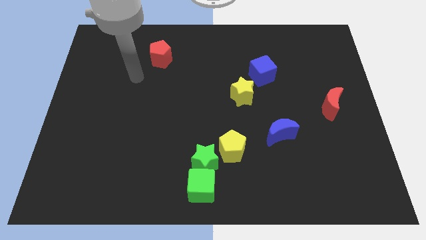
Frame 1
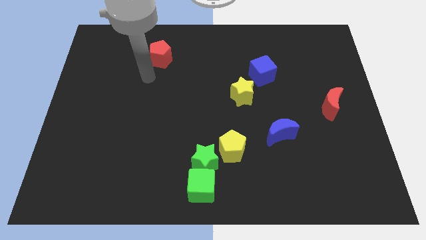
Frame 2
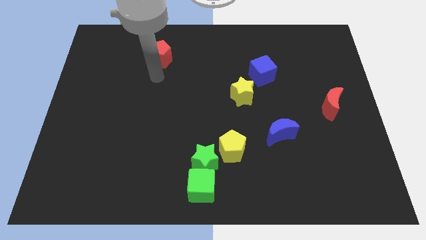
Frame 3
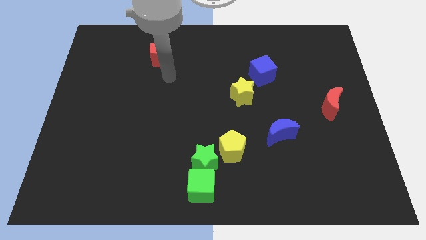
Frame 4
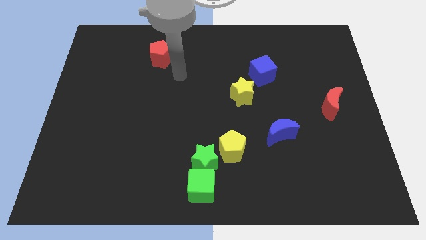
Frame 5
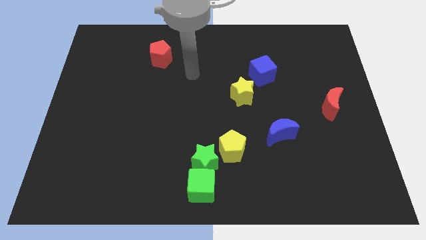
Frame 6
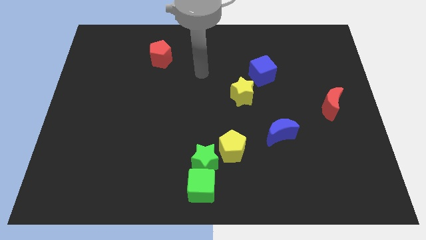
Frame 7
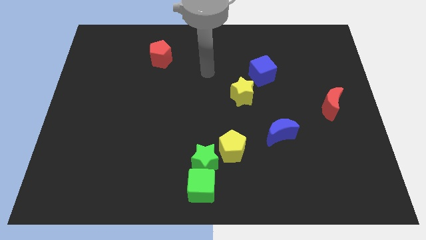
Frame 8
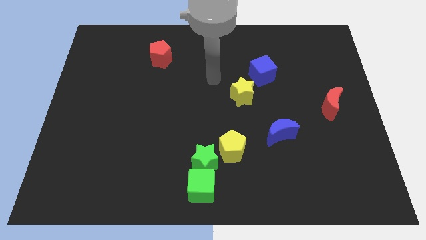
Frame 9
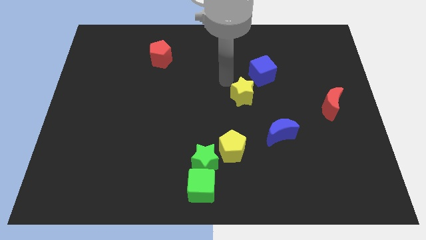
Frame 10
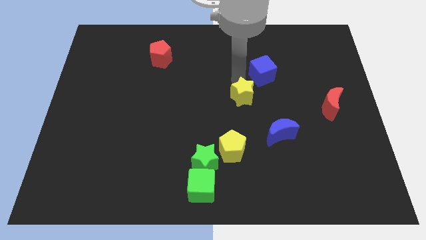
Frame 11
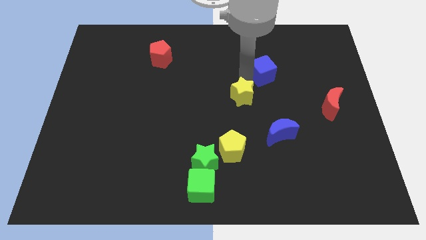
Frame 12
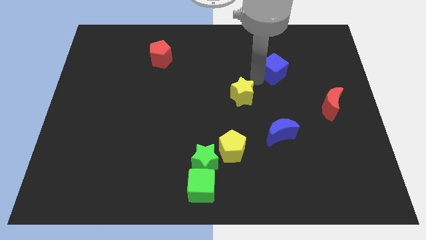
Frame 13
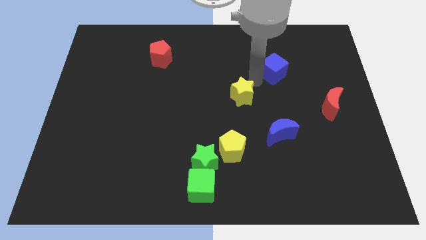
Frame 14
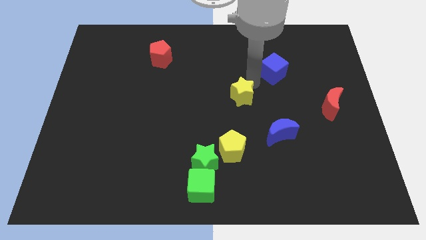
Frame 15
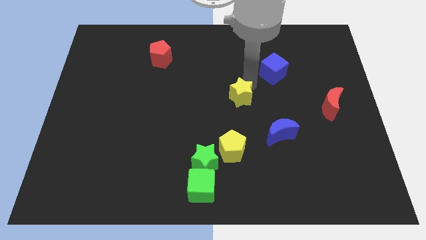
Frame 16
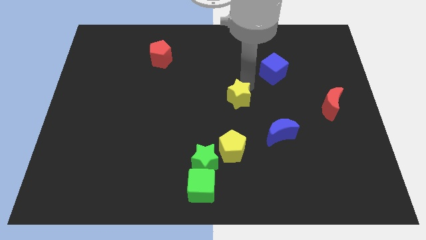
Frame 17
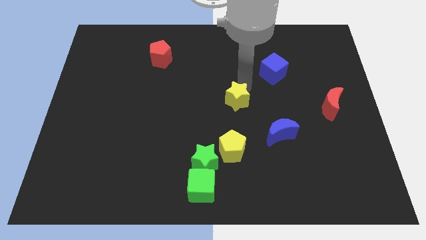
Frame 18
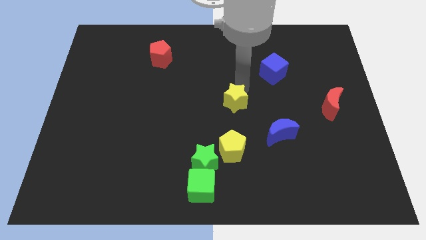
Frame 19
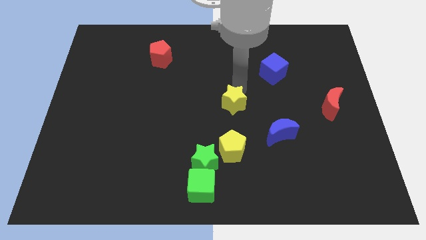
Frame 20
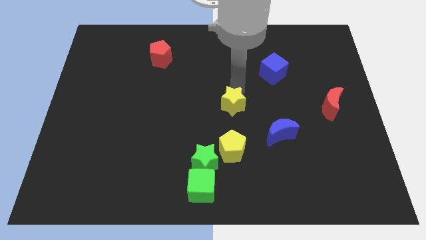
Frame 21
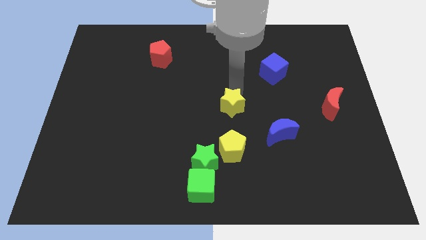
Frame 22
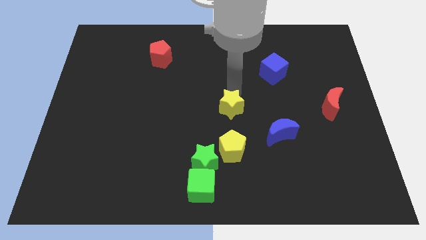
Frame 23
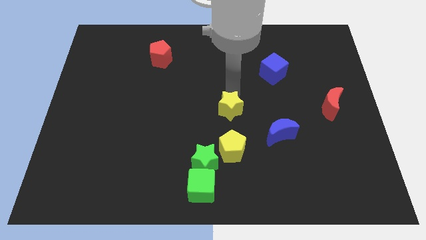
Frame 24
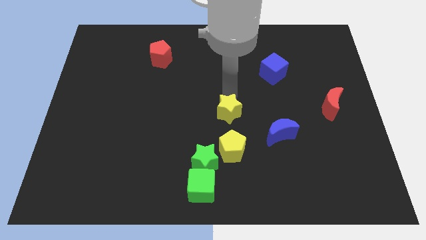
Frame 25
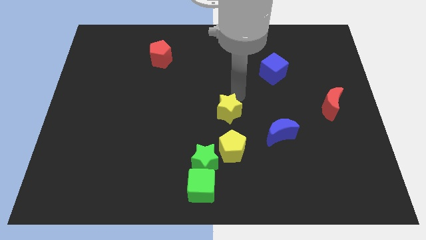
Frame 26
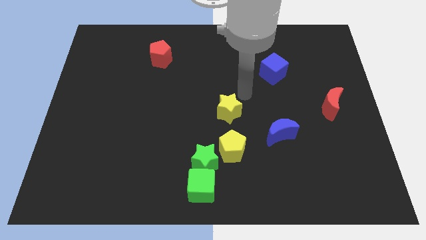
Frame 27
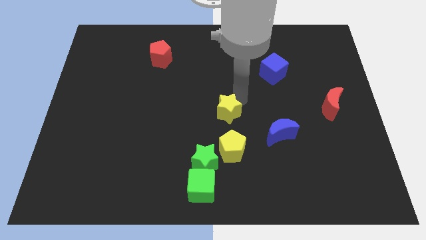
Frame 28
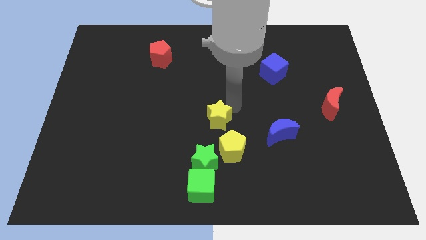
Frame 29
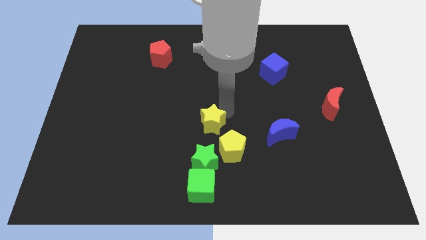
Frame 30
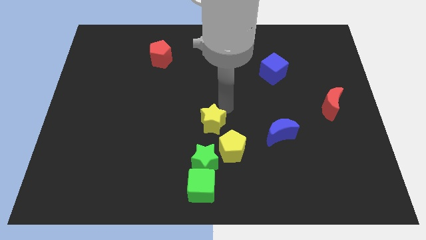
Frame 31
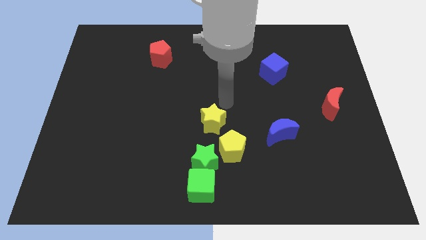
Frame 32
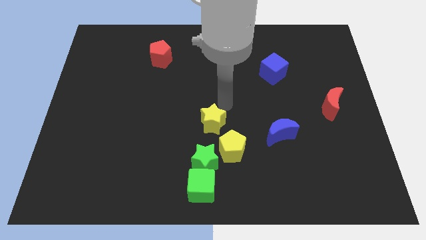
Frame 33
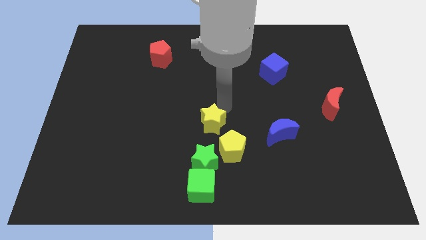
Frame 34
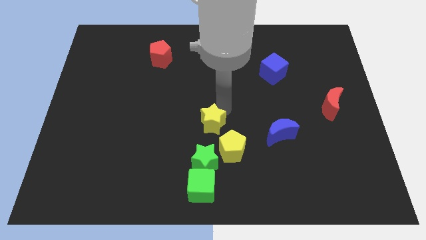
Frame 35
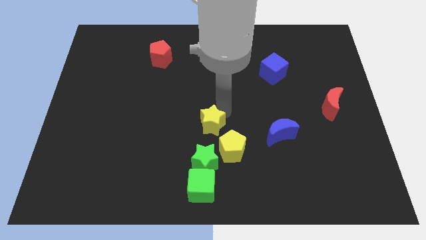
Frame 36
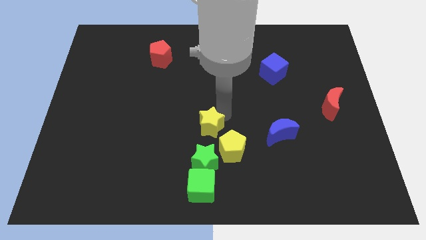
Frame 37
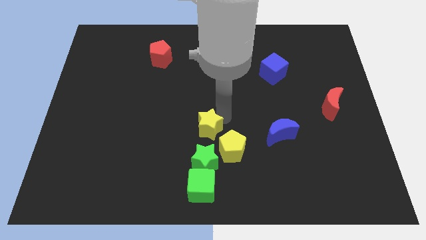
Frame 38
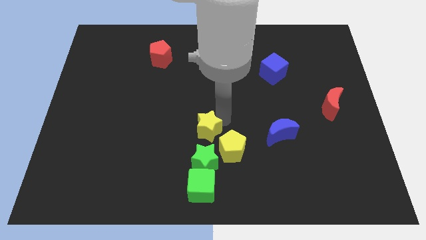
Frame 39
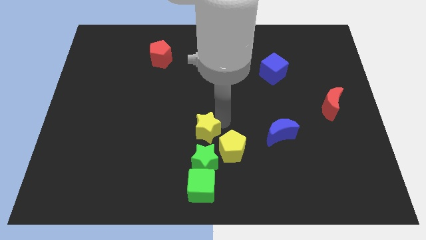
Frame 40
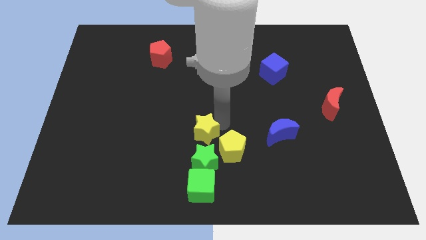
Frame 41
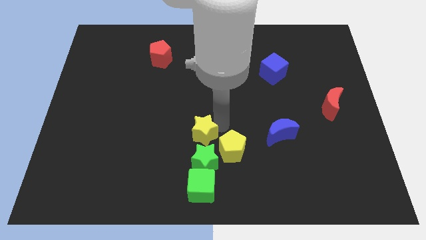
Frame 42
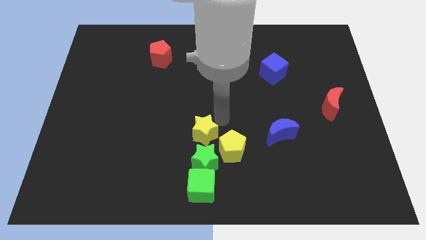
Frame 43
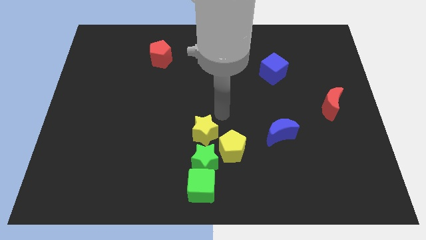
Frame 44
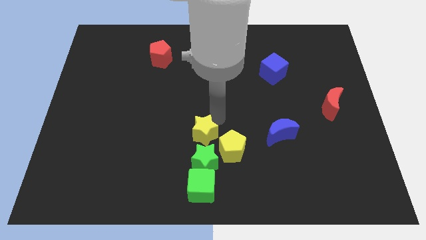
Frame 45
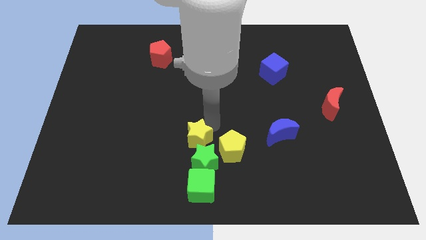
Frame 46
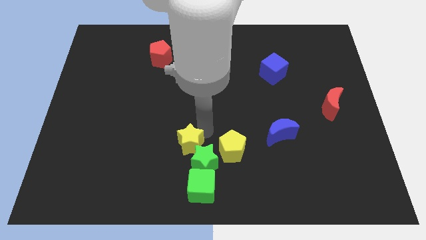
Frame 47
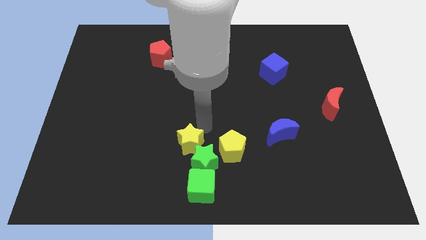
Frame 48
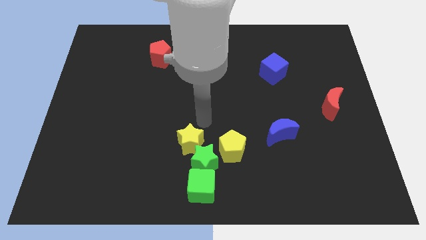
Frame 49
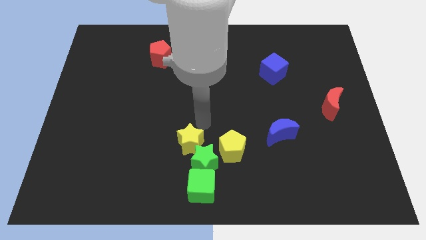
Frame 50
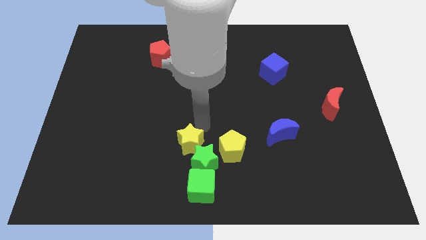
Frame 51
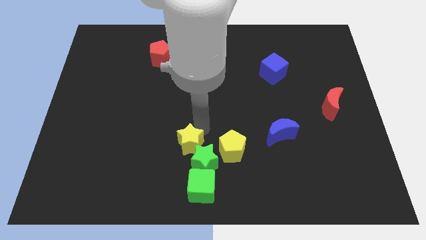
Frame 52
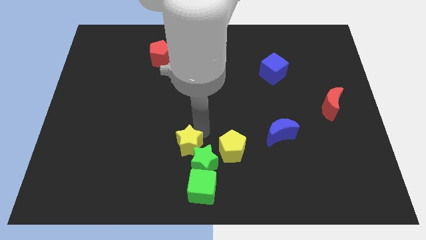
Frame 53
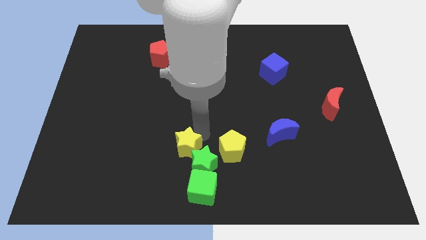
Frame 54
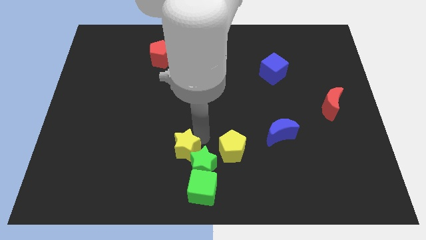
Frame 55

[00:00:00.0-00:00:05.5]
move the yellow star to the top left side of the green cube

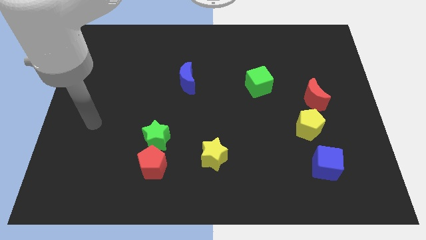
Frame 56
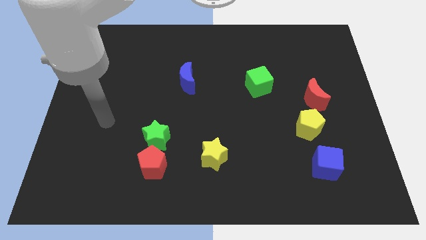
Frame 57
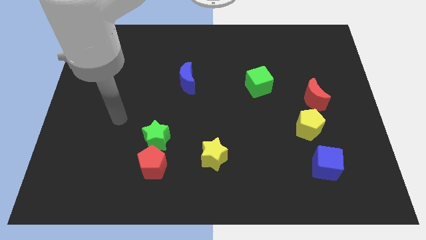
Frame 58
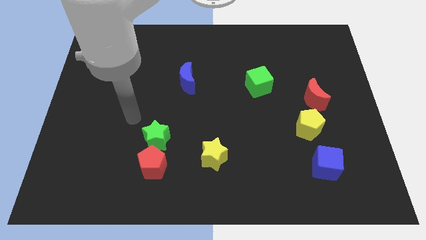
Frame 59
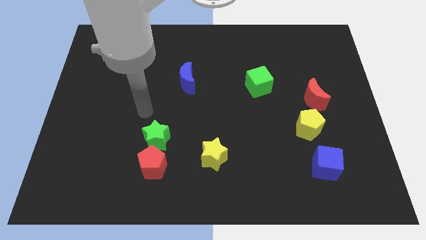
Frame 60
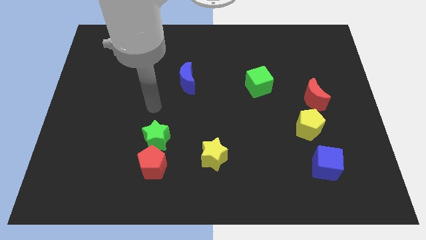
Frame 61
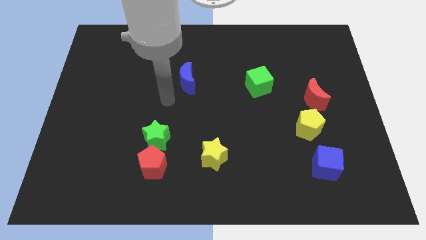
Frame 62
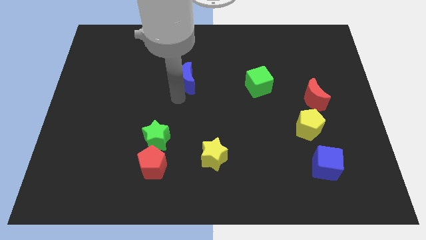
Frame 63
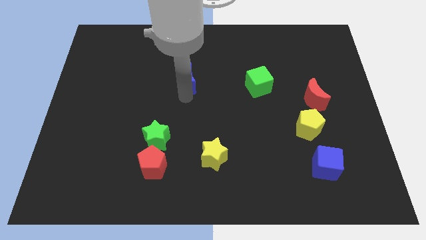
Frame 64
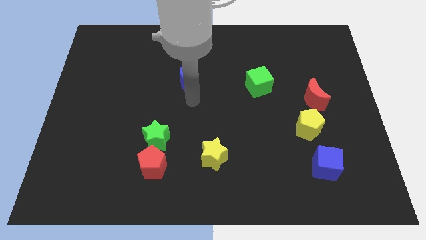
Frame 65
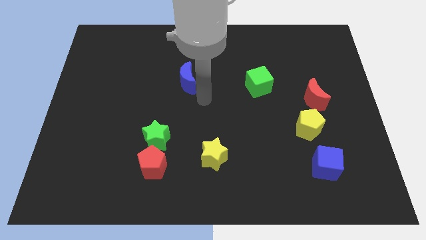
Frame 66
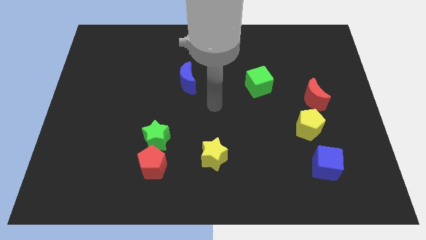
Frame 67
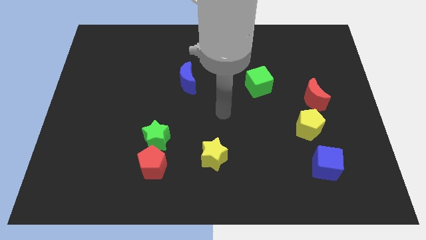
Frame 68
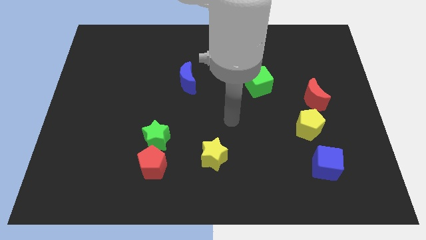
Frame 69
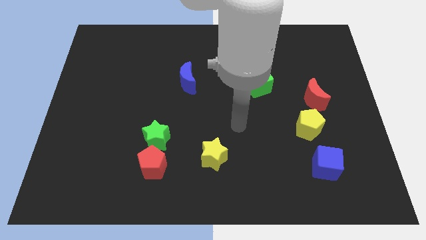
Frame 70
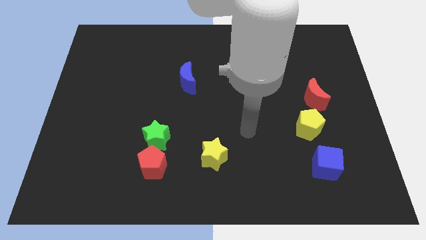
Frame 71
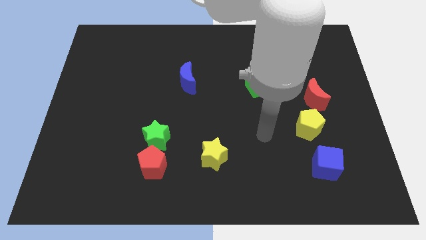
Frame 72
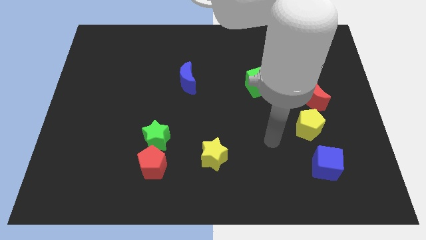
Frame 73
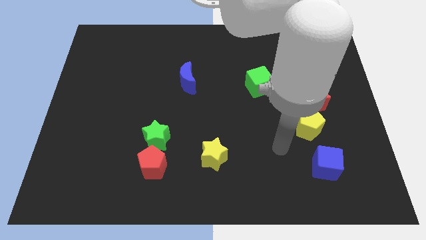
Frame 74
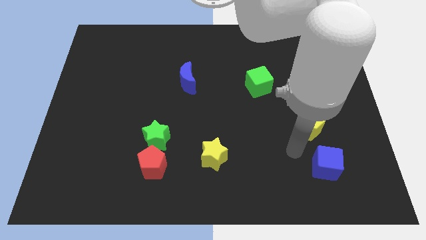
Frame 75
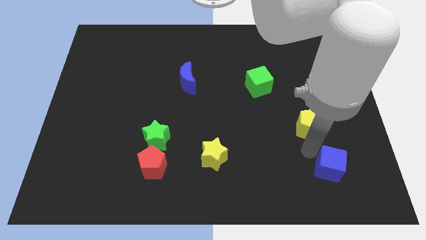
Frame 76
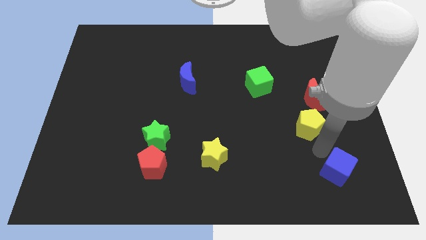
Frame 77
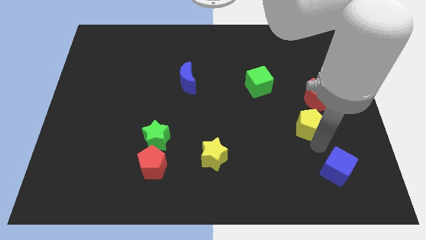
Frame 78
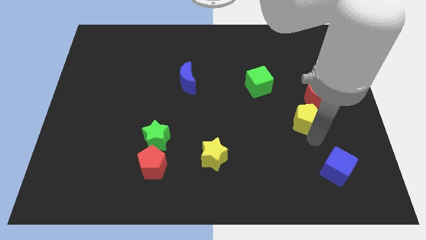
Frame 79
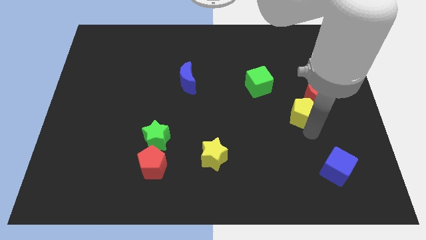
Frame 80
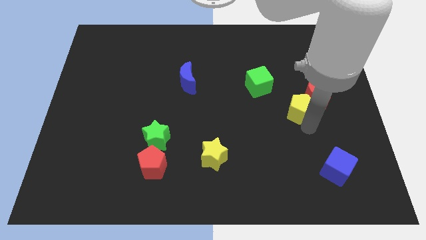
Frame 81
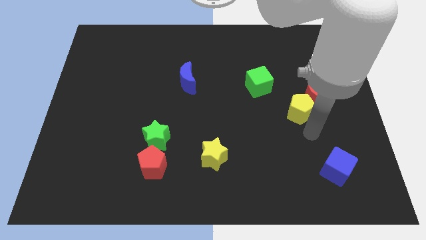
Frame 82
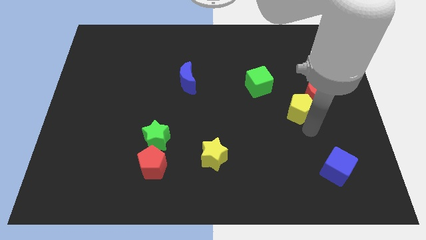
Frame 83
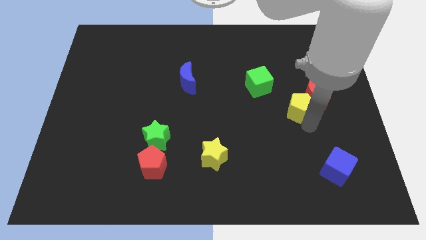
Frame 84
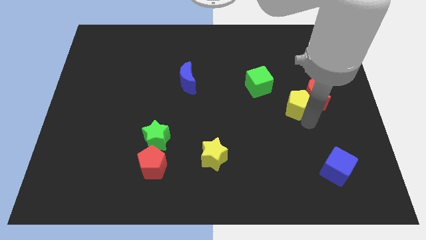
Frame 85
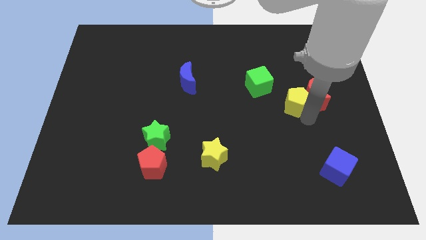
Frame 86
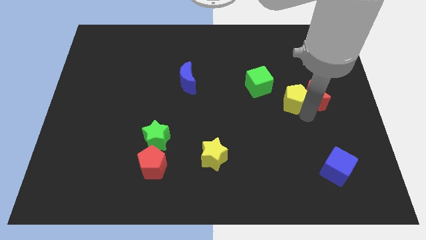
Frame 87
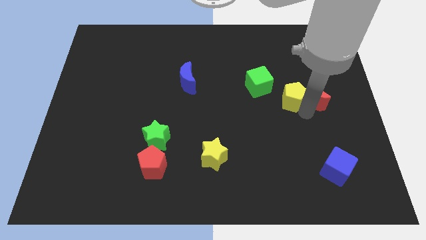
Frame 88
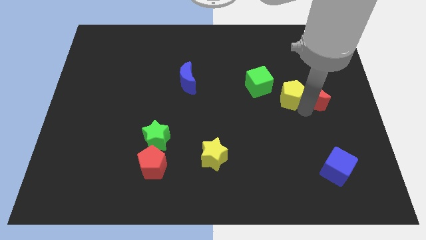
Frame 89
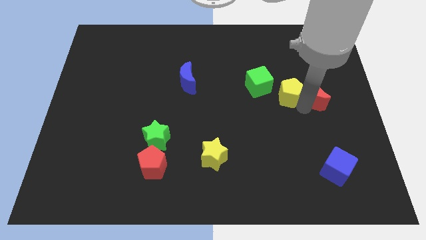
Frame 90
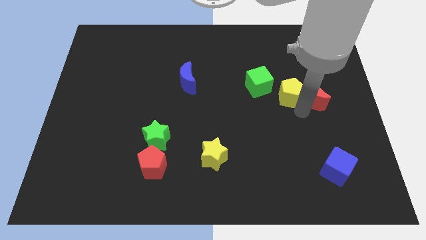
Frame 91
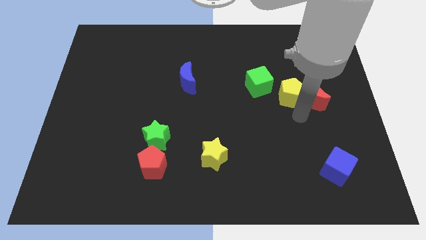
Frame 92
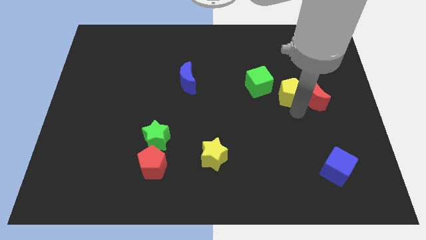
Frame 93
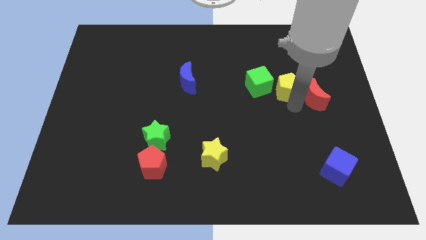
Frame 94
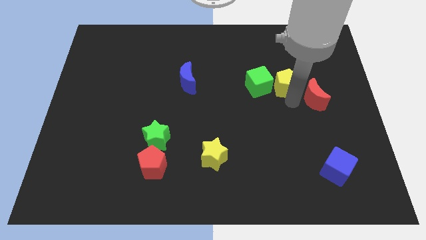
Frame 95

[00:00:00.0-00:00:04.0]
put the yellow pentagon to the top right of the green cube
